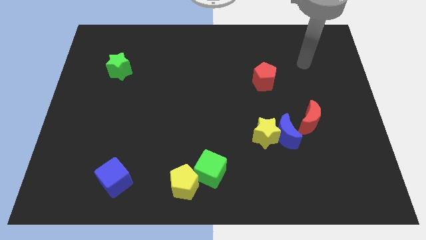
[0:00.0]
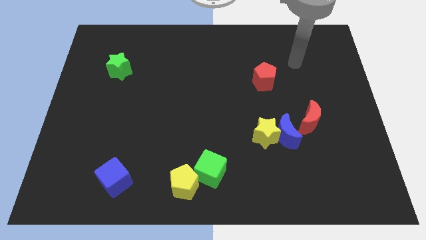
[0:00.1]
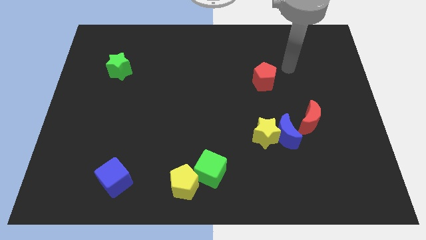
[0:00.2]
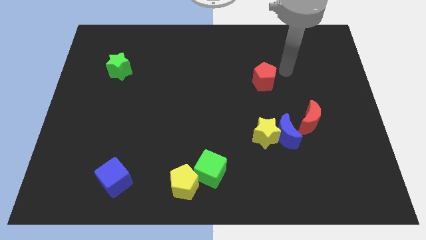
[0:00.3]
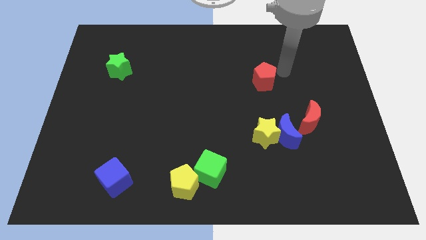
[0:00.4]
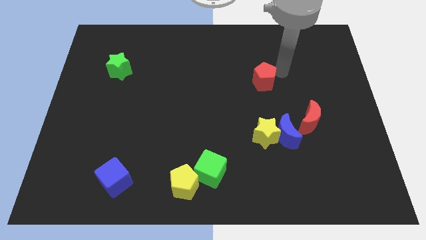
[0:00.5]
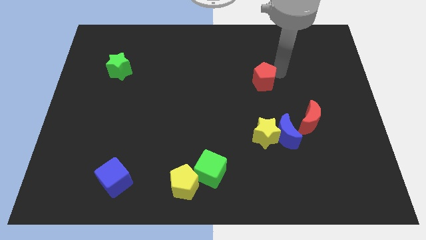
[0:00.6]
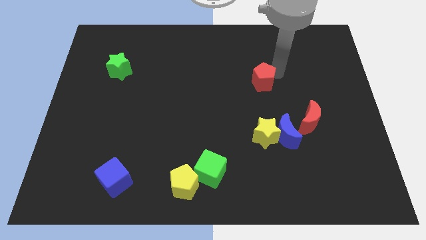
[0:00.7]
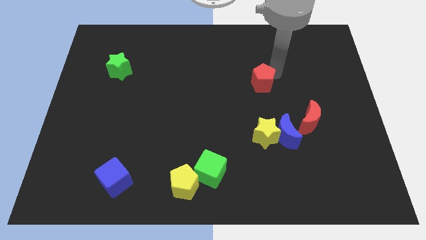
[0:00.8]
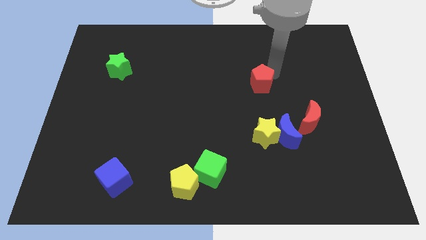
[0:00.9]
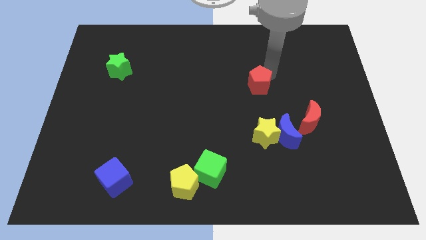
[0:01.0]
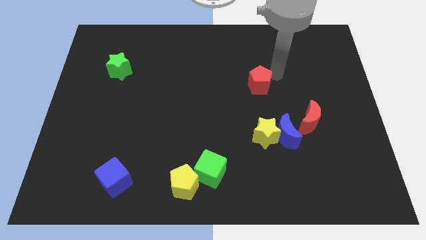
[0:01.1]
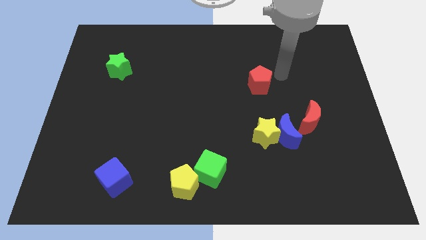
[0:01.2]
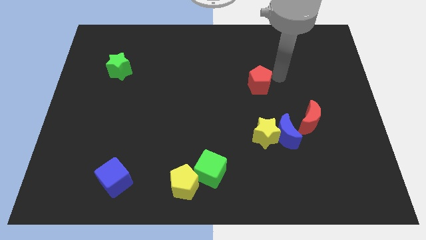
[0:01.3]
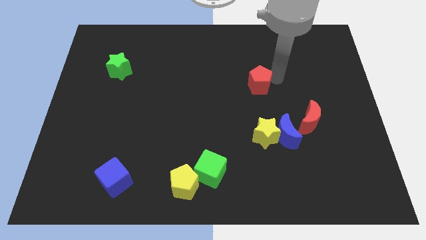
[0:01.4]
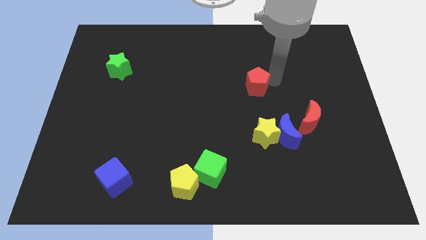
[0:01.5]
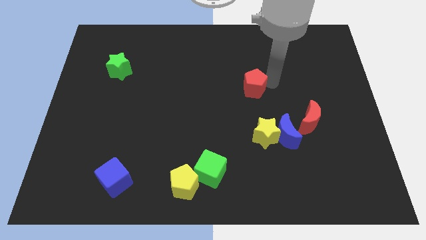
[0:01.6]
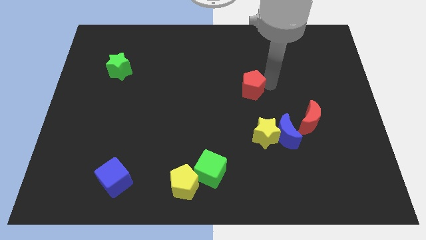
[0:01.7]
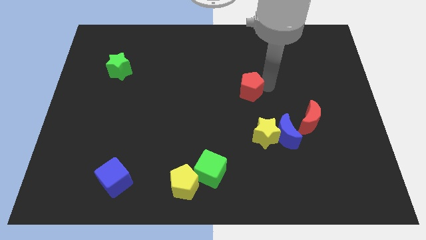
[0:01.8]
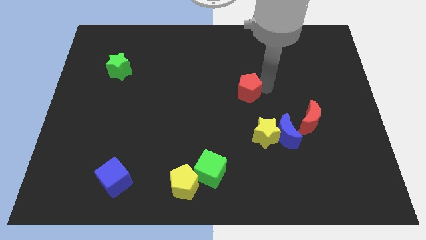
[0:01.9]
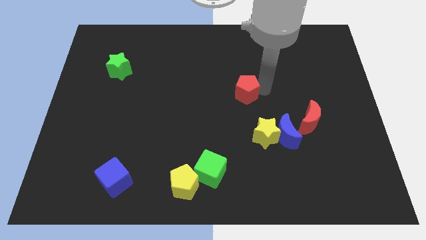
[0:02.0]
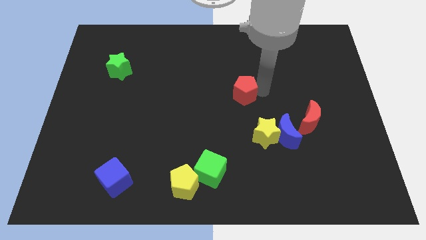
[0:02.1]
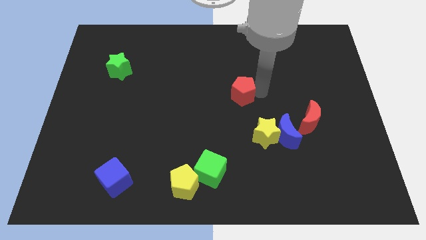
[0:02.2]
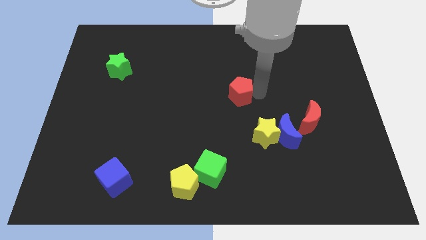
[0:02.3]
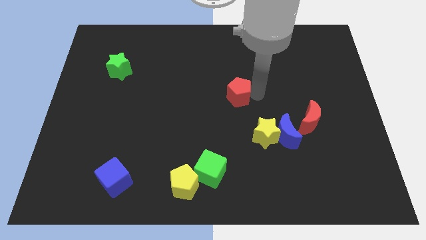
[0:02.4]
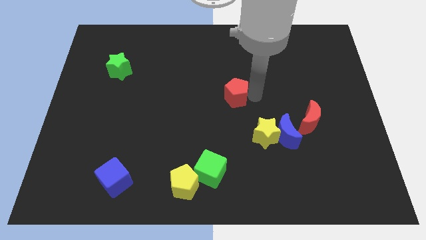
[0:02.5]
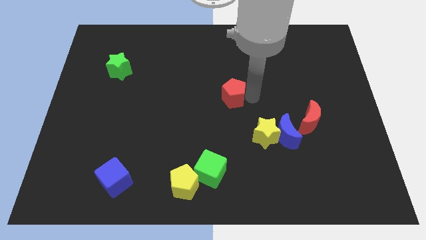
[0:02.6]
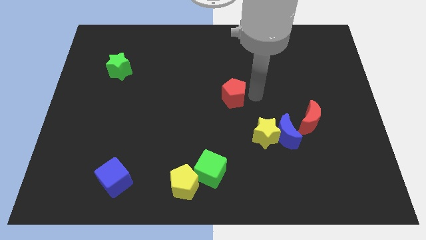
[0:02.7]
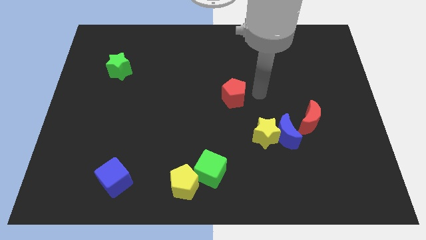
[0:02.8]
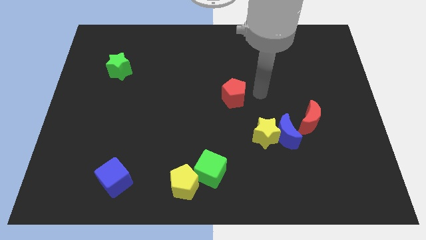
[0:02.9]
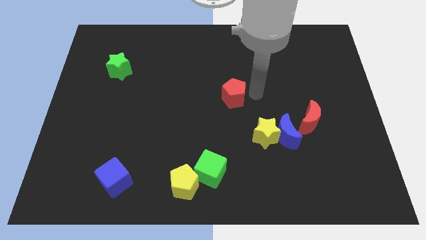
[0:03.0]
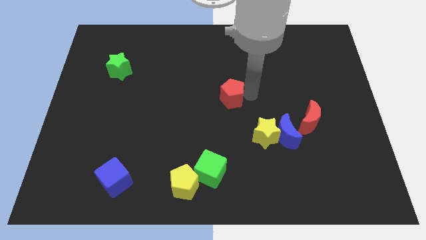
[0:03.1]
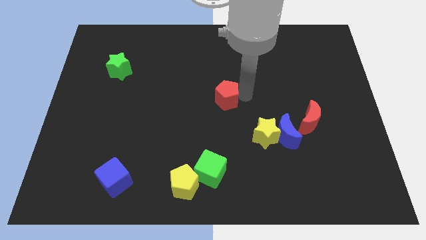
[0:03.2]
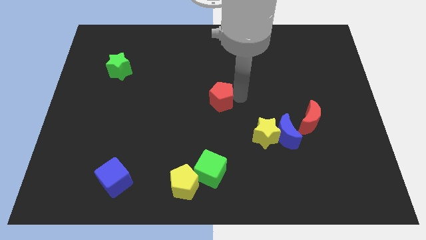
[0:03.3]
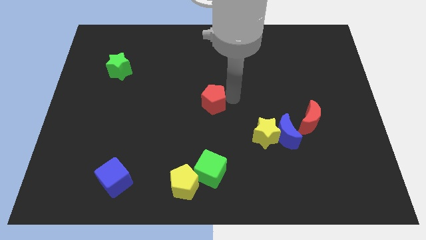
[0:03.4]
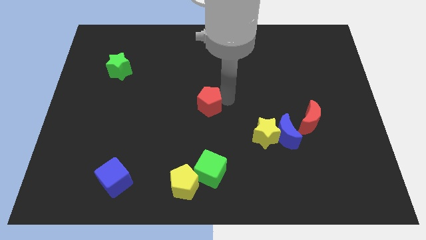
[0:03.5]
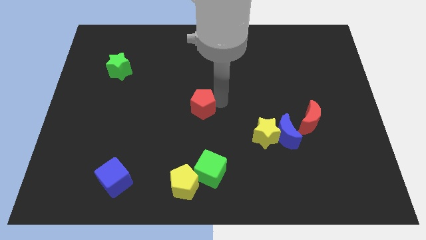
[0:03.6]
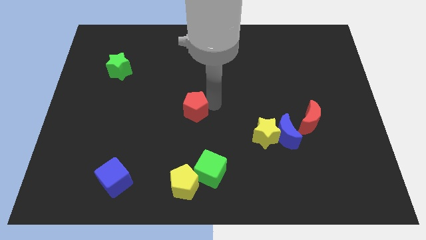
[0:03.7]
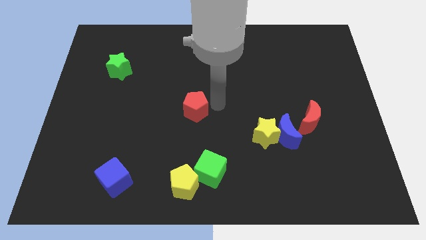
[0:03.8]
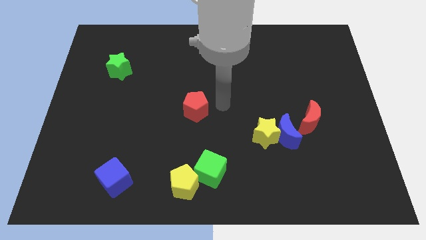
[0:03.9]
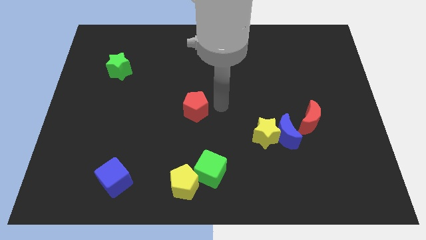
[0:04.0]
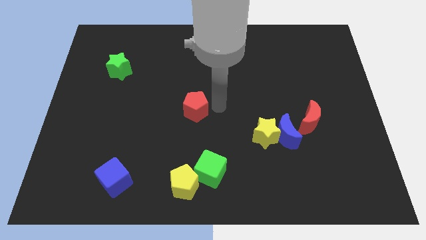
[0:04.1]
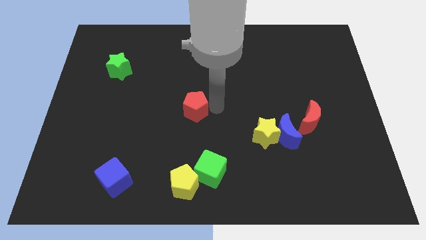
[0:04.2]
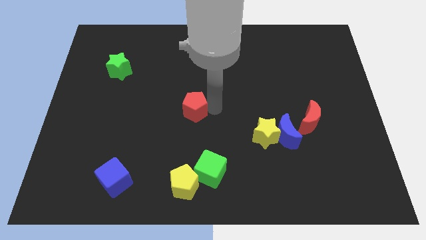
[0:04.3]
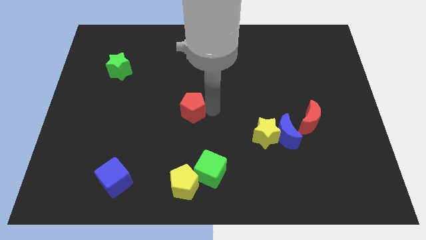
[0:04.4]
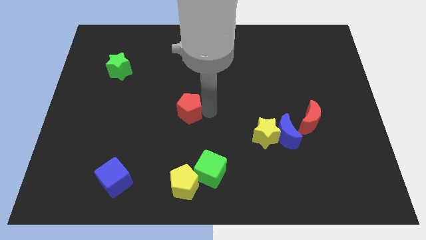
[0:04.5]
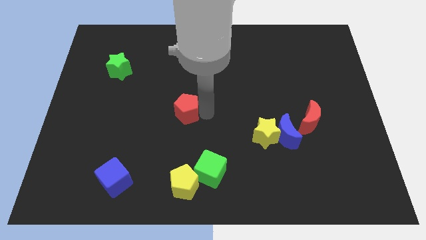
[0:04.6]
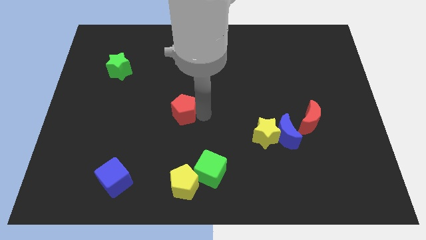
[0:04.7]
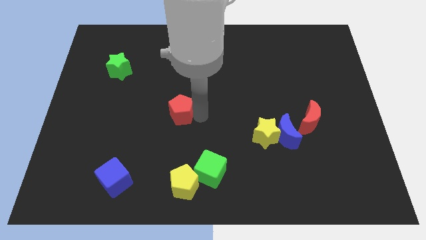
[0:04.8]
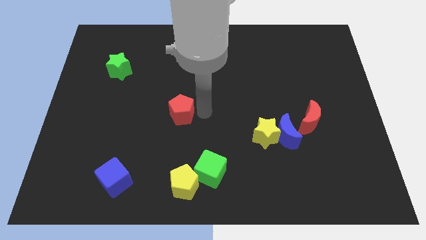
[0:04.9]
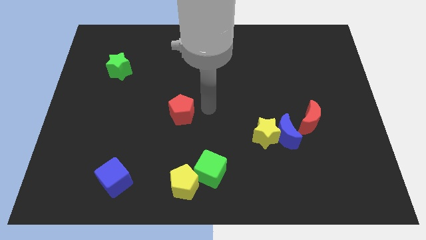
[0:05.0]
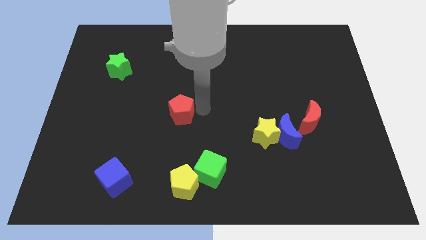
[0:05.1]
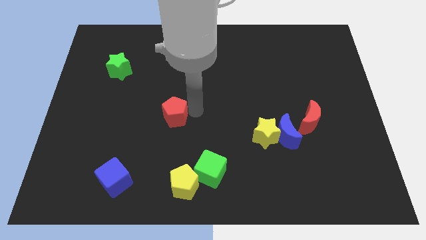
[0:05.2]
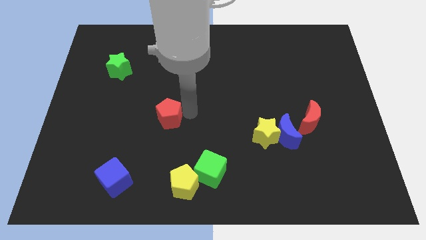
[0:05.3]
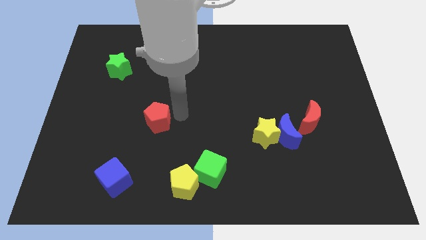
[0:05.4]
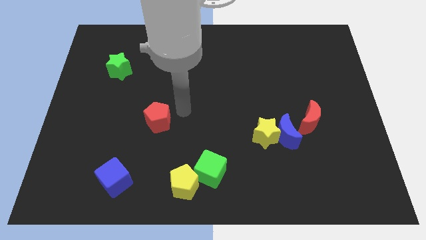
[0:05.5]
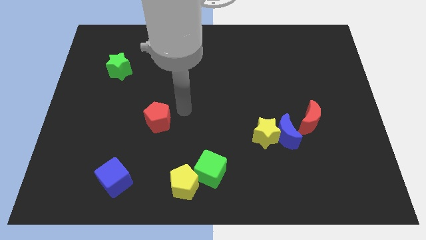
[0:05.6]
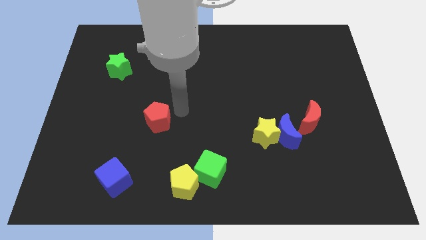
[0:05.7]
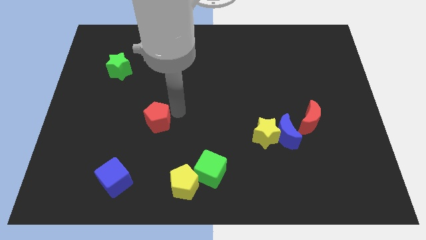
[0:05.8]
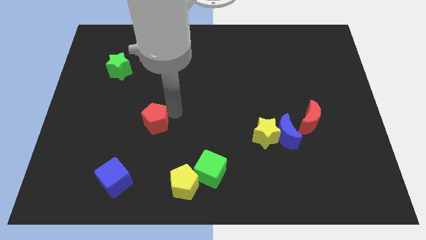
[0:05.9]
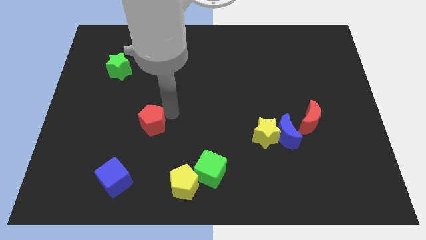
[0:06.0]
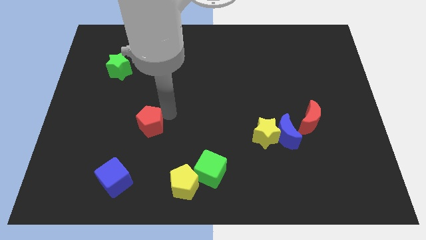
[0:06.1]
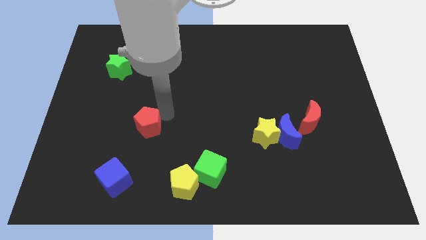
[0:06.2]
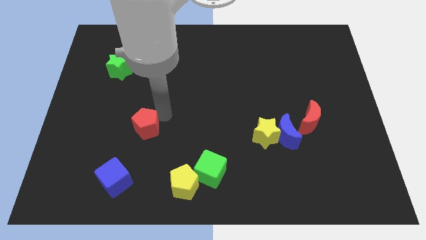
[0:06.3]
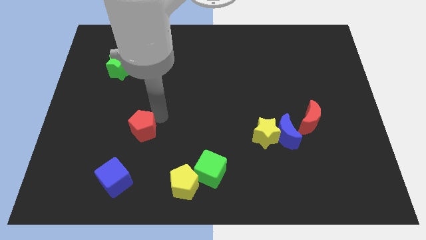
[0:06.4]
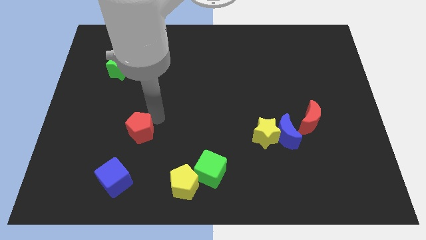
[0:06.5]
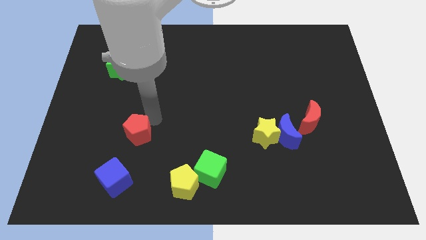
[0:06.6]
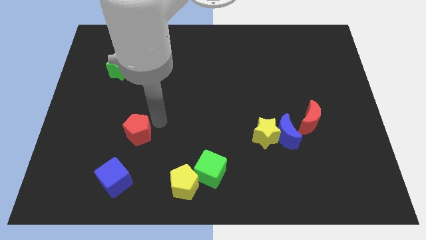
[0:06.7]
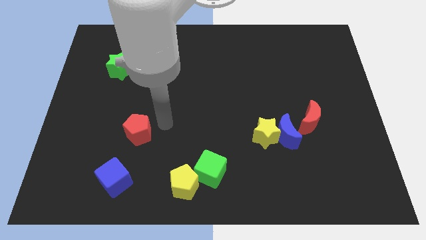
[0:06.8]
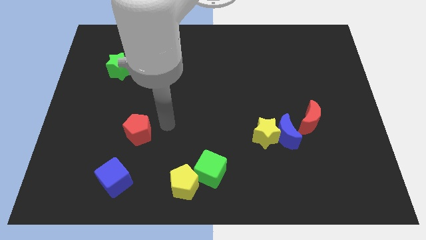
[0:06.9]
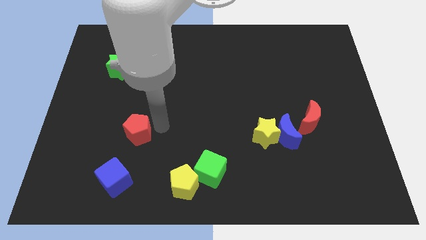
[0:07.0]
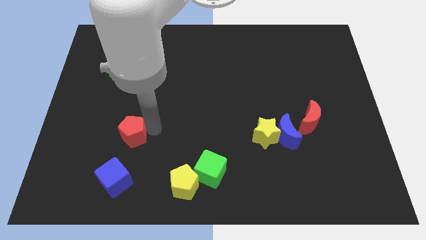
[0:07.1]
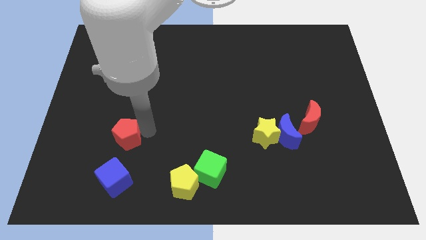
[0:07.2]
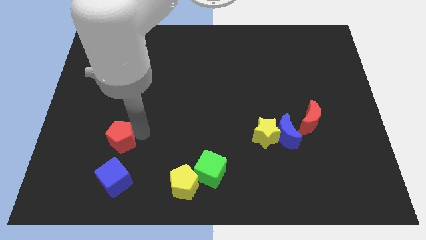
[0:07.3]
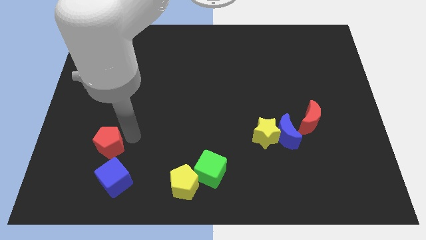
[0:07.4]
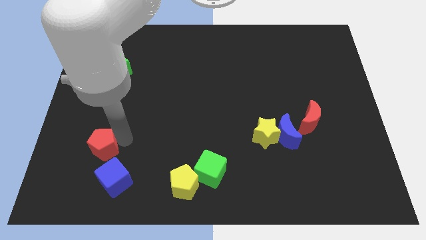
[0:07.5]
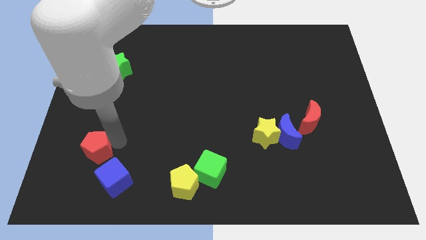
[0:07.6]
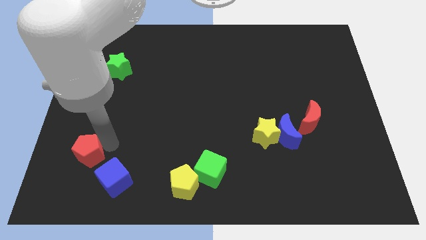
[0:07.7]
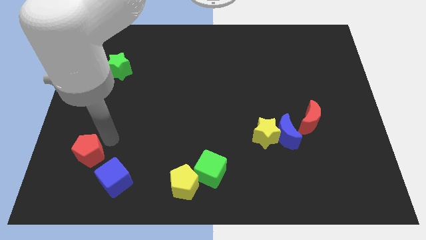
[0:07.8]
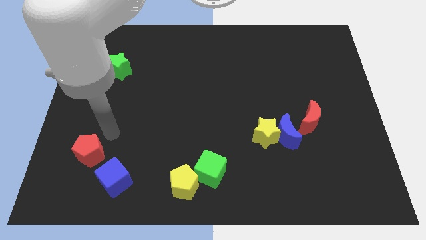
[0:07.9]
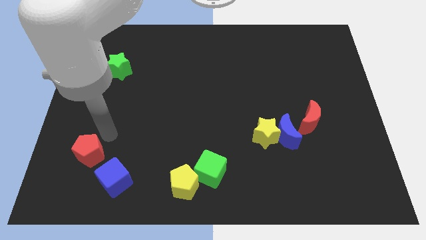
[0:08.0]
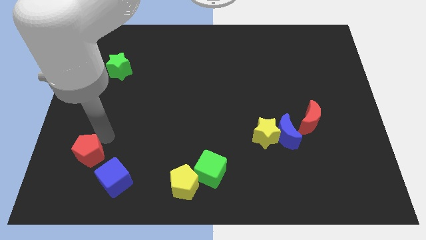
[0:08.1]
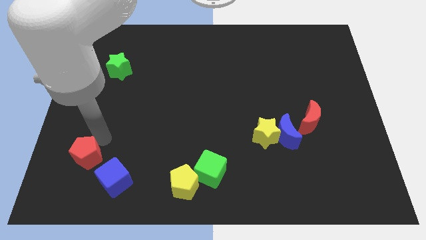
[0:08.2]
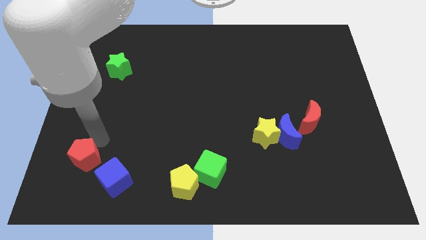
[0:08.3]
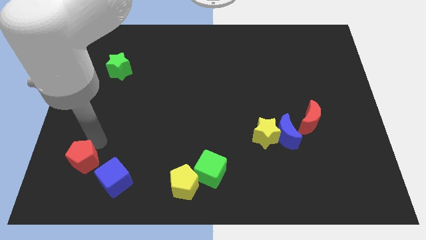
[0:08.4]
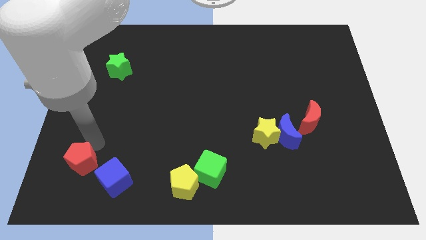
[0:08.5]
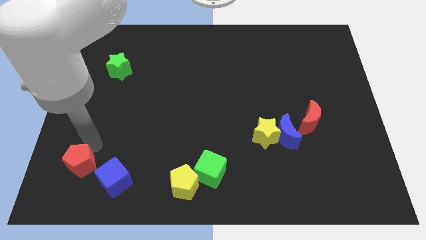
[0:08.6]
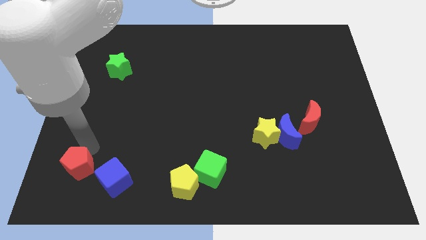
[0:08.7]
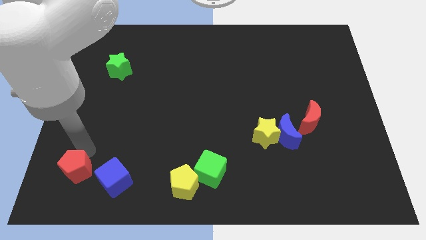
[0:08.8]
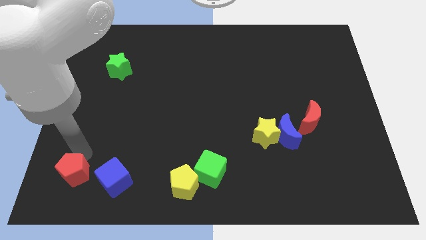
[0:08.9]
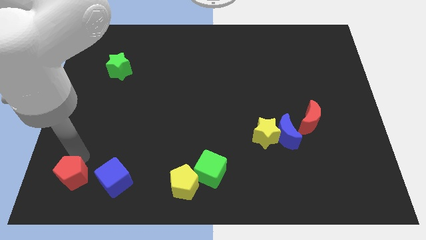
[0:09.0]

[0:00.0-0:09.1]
slide the red pentagon to the bottom left of the board
